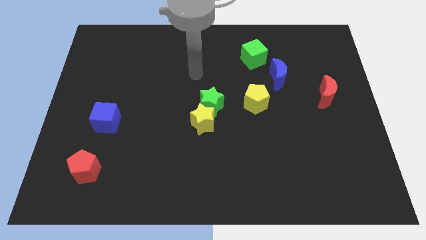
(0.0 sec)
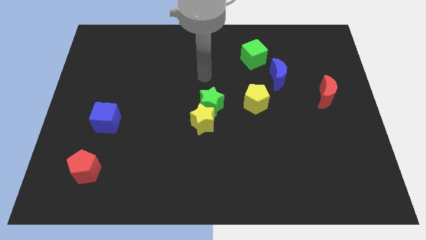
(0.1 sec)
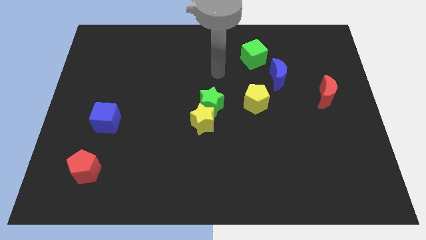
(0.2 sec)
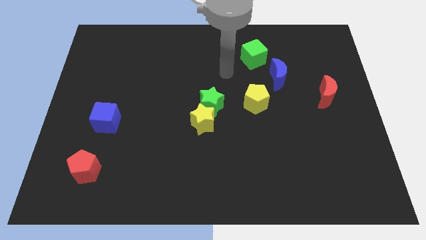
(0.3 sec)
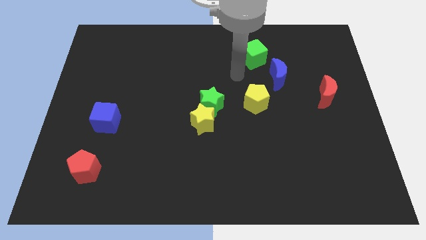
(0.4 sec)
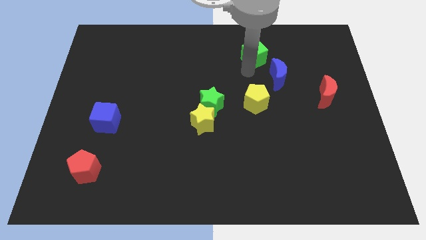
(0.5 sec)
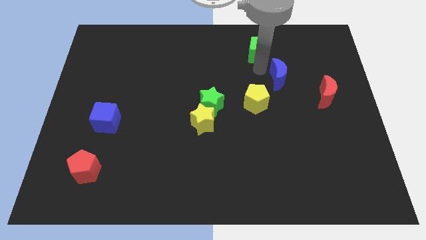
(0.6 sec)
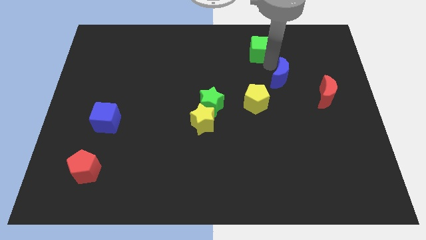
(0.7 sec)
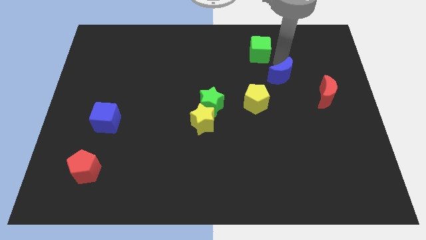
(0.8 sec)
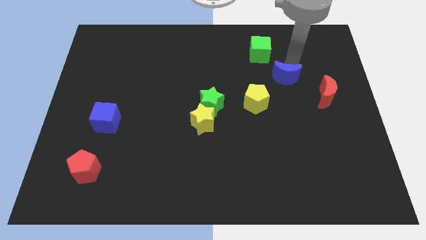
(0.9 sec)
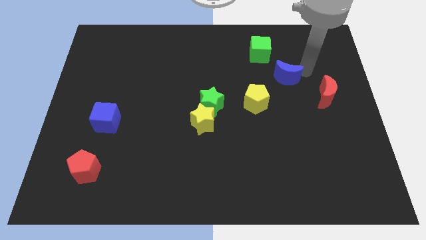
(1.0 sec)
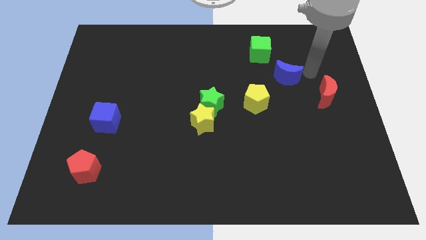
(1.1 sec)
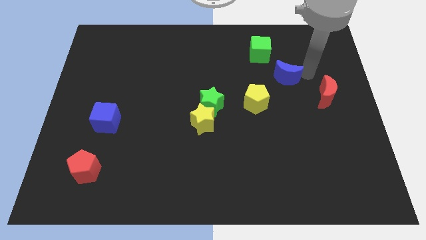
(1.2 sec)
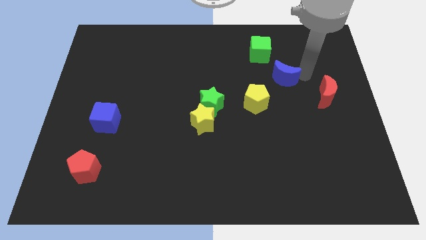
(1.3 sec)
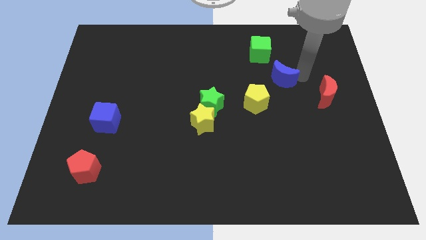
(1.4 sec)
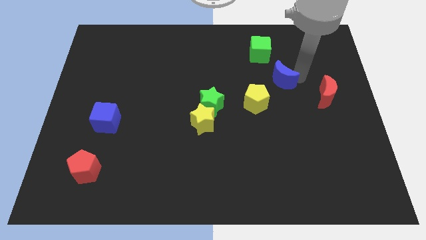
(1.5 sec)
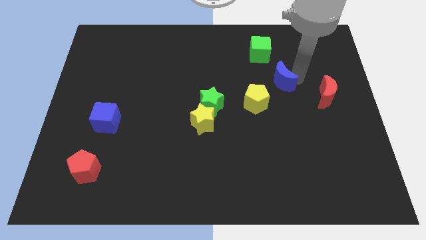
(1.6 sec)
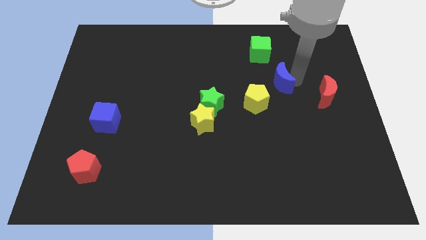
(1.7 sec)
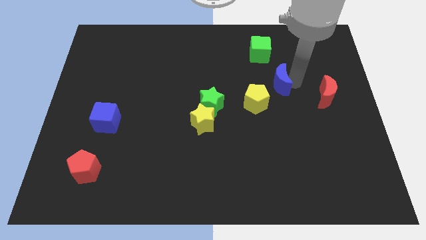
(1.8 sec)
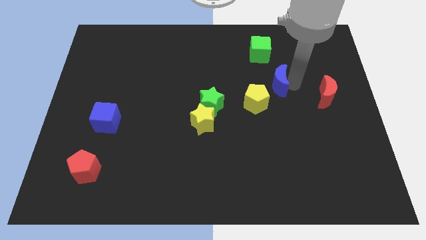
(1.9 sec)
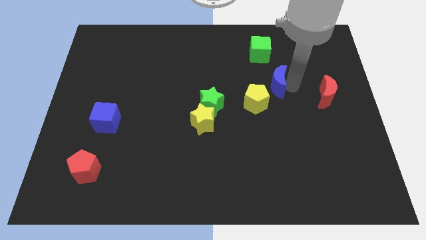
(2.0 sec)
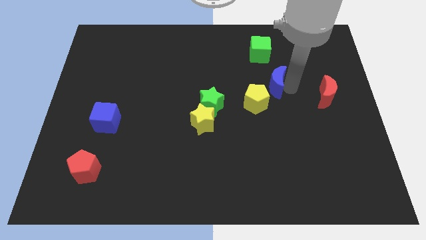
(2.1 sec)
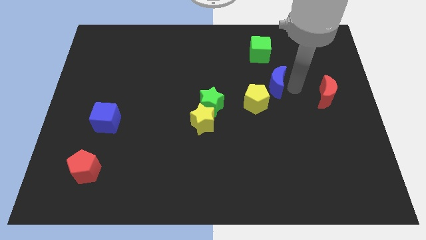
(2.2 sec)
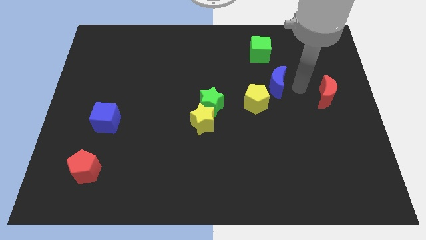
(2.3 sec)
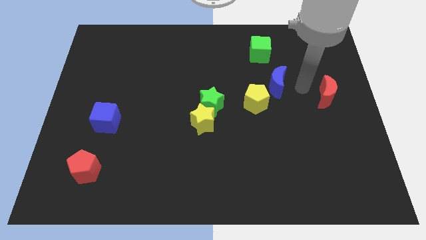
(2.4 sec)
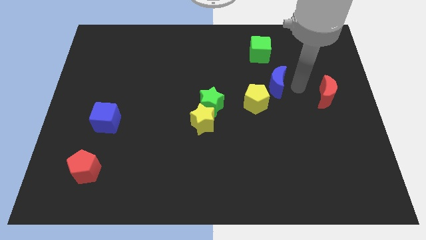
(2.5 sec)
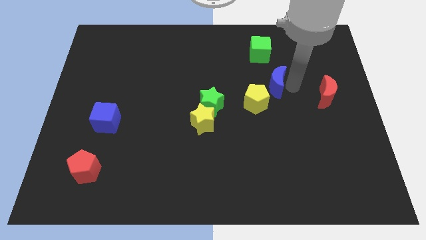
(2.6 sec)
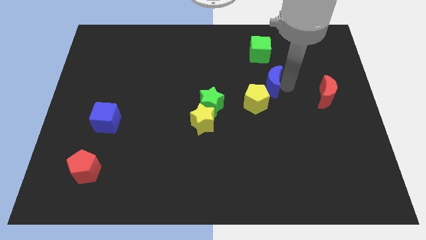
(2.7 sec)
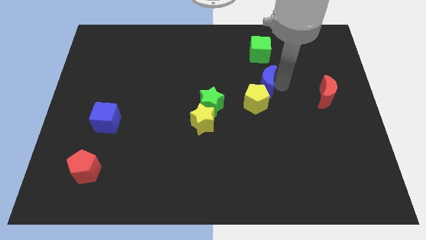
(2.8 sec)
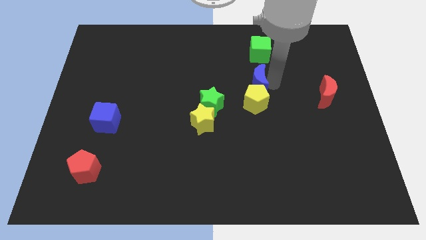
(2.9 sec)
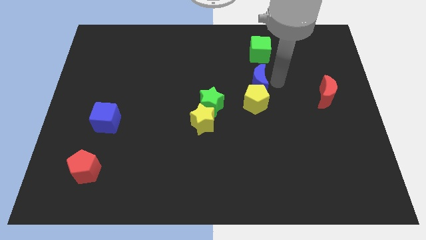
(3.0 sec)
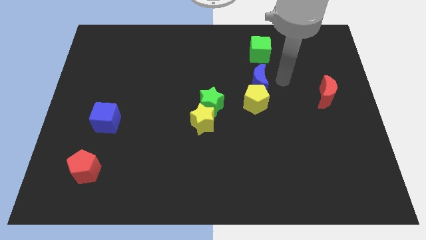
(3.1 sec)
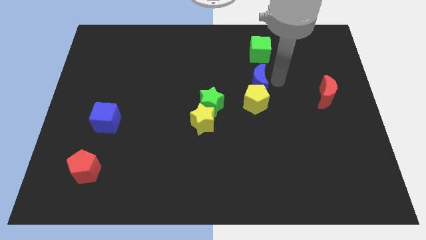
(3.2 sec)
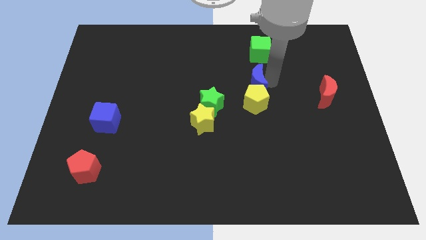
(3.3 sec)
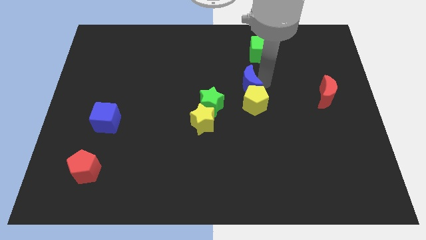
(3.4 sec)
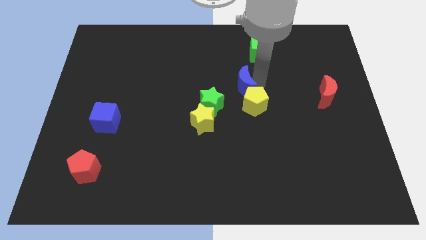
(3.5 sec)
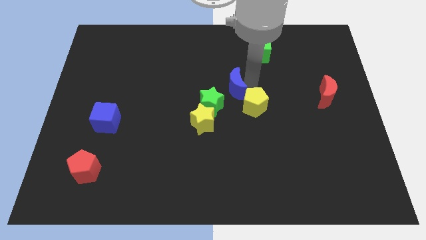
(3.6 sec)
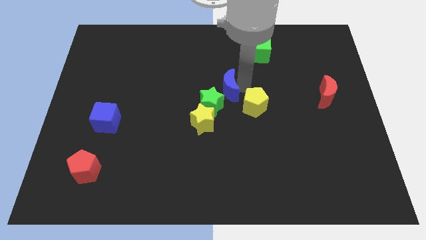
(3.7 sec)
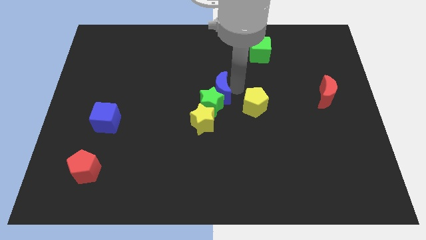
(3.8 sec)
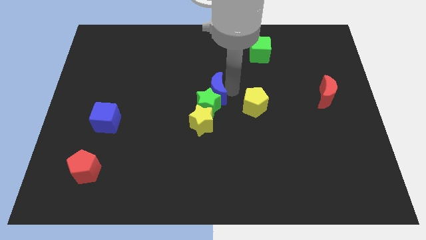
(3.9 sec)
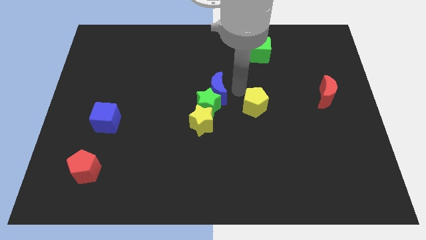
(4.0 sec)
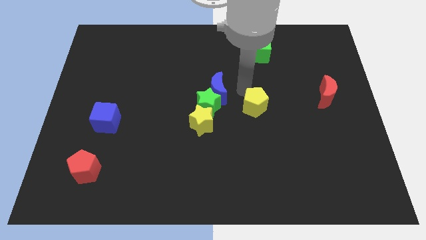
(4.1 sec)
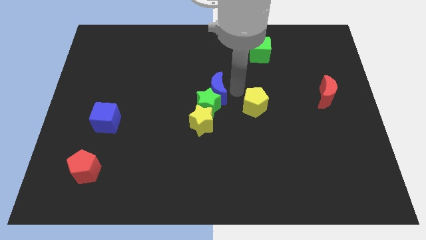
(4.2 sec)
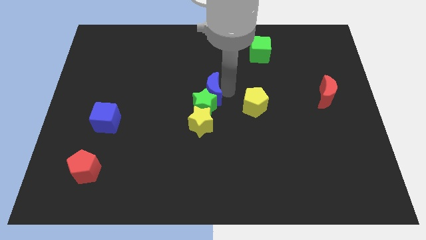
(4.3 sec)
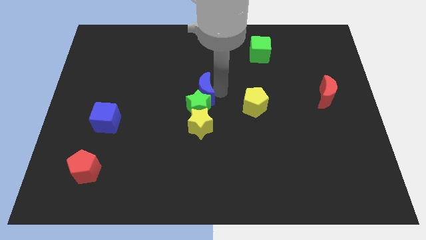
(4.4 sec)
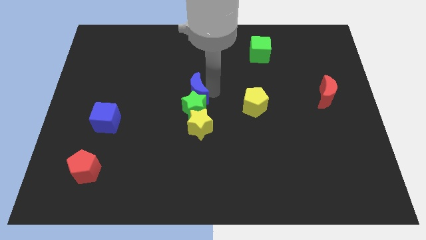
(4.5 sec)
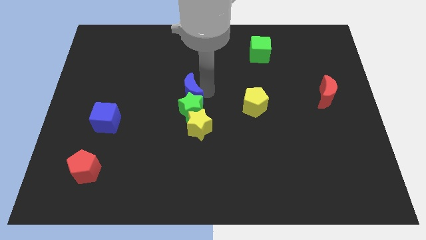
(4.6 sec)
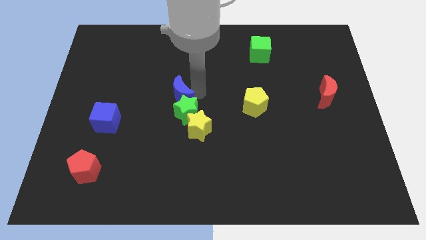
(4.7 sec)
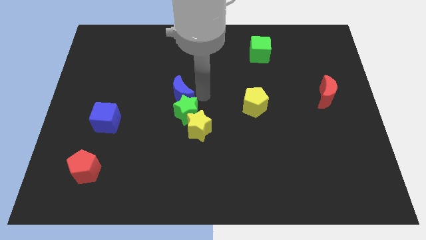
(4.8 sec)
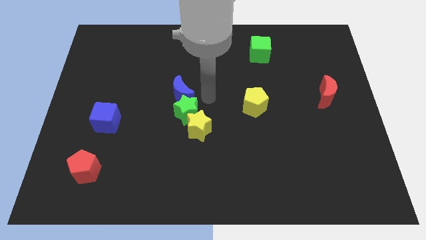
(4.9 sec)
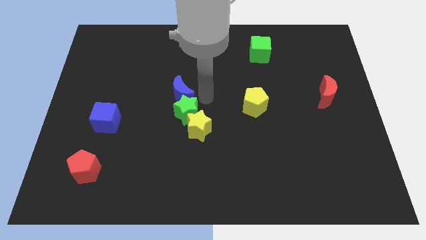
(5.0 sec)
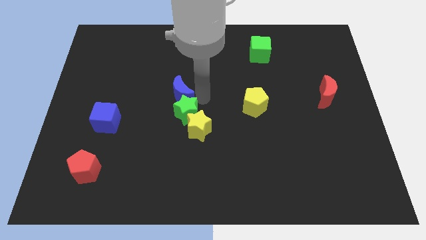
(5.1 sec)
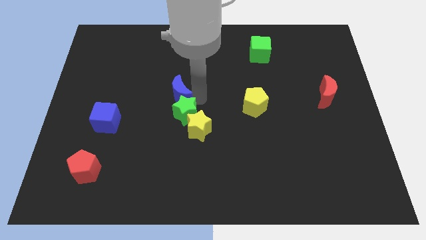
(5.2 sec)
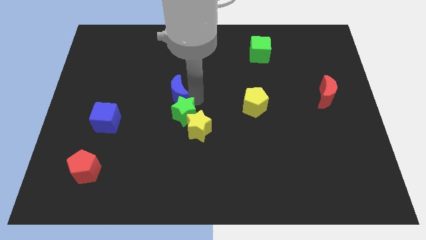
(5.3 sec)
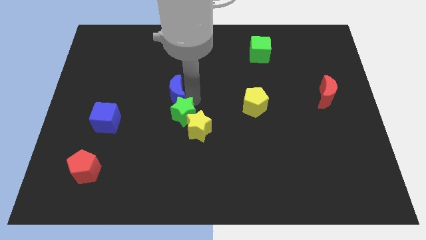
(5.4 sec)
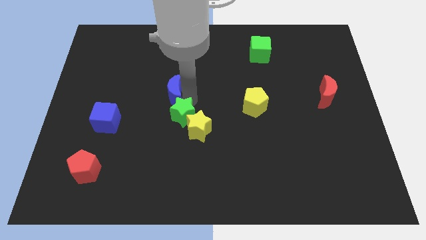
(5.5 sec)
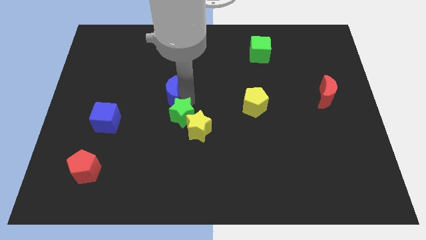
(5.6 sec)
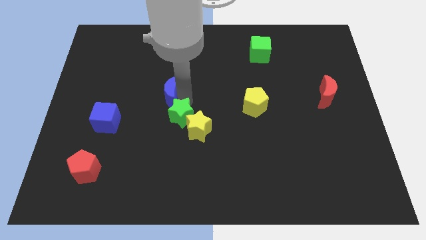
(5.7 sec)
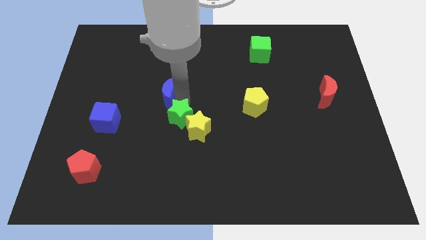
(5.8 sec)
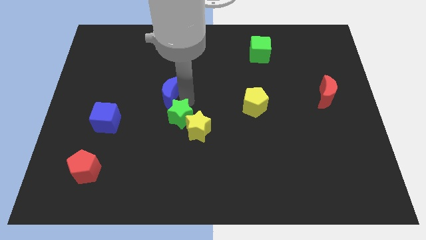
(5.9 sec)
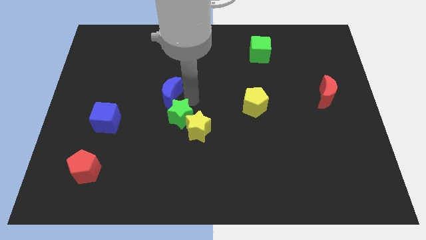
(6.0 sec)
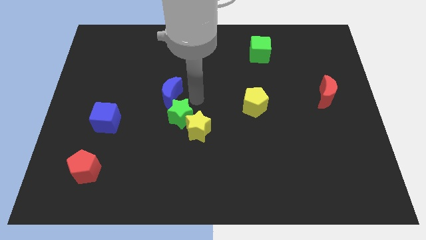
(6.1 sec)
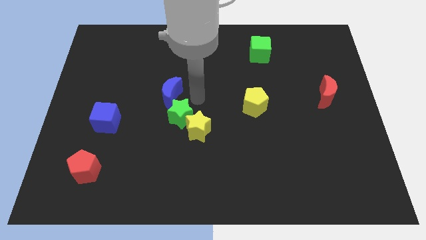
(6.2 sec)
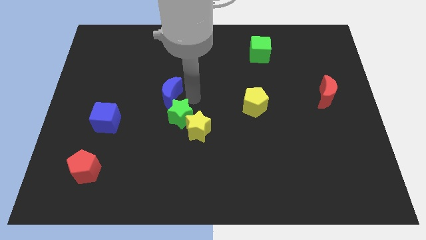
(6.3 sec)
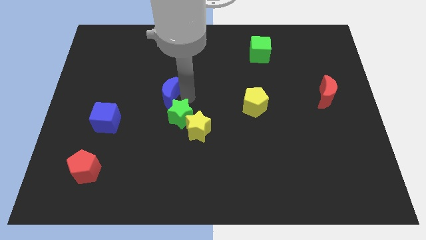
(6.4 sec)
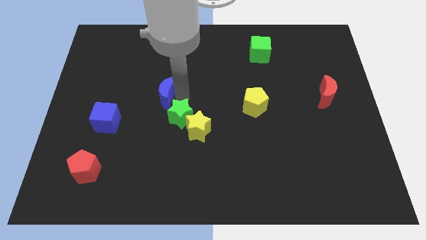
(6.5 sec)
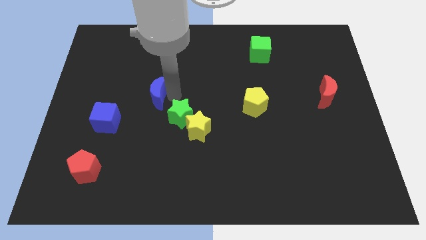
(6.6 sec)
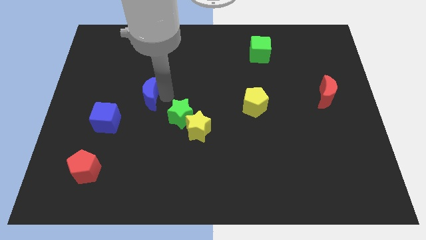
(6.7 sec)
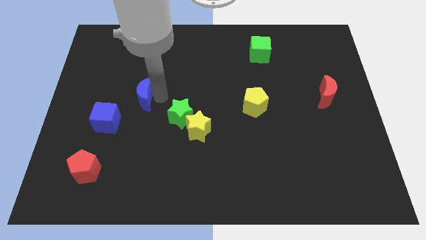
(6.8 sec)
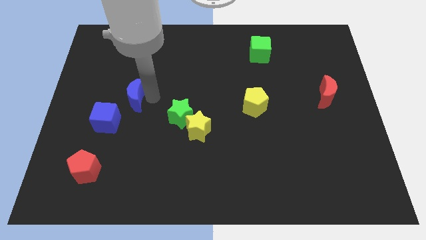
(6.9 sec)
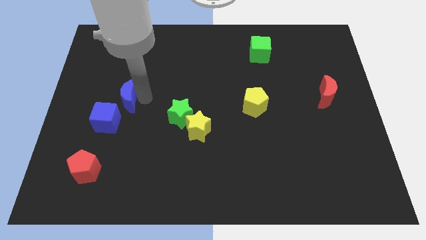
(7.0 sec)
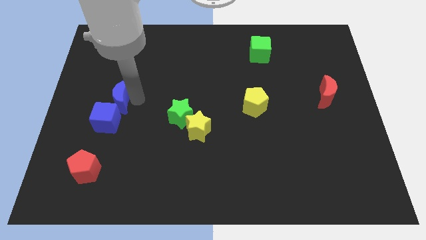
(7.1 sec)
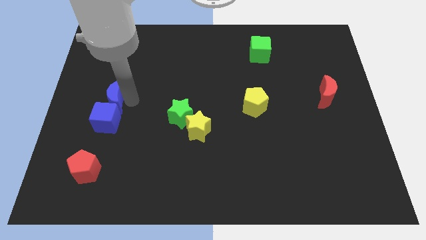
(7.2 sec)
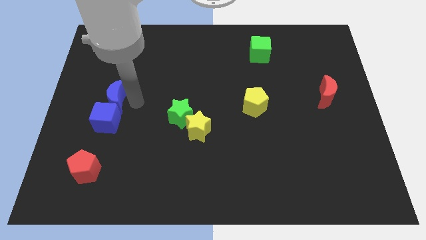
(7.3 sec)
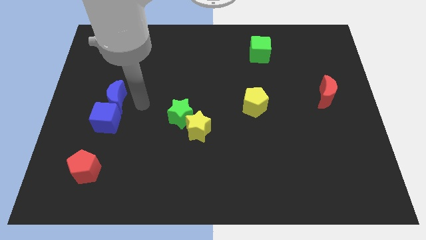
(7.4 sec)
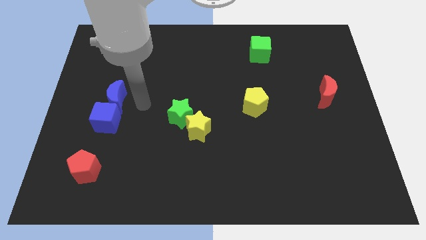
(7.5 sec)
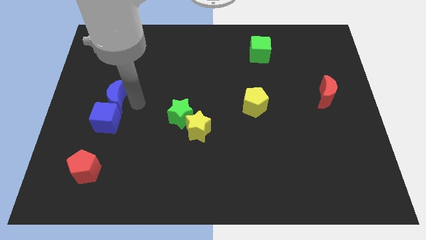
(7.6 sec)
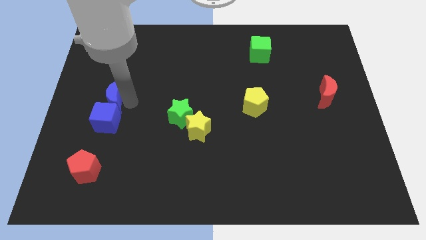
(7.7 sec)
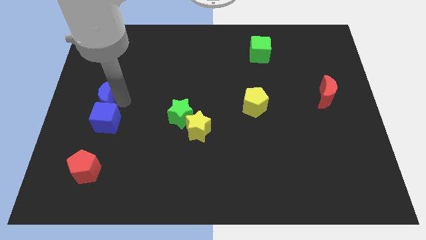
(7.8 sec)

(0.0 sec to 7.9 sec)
put the blue moon to the left side of the board
